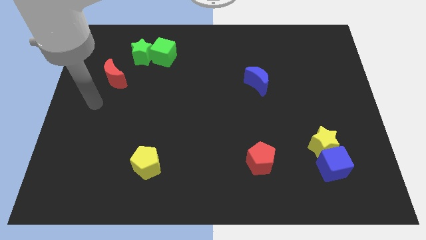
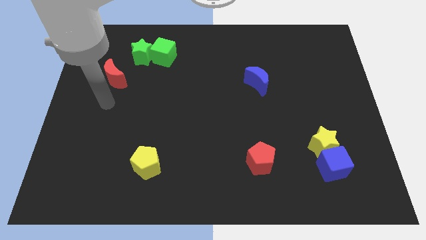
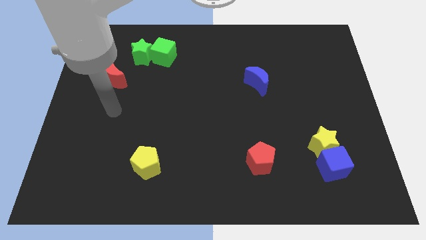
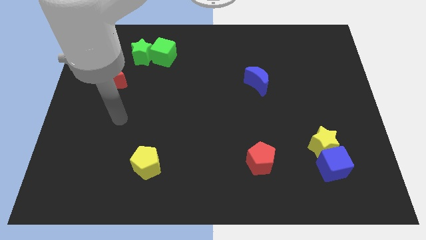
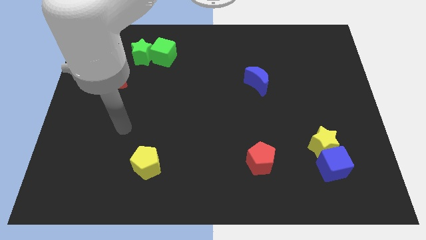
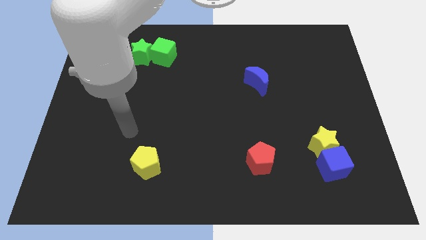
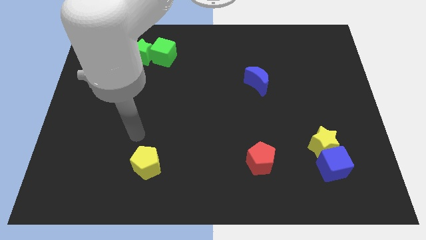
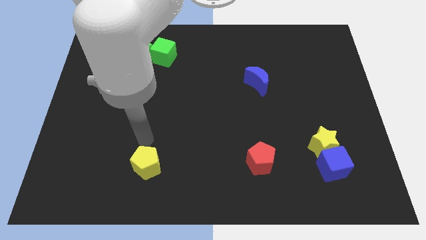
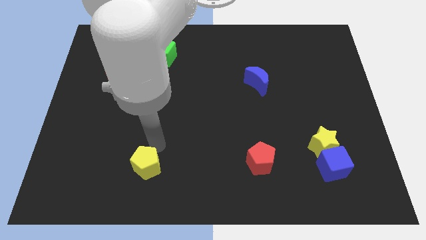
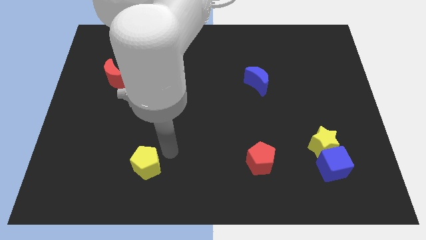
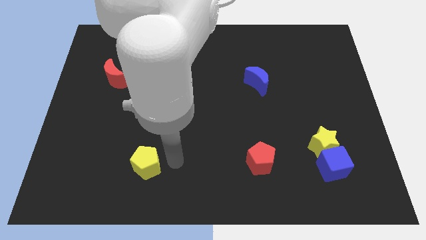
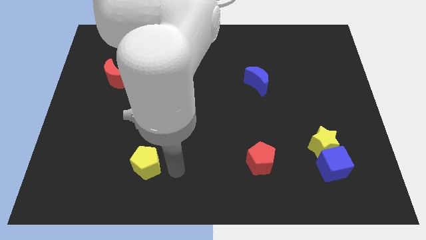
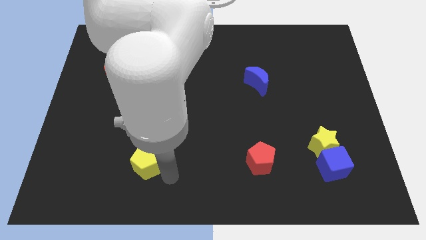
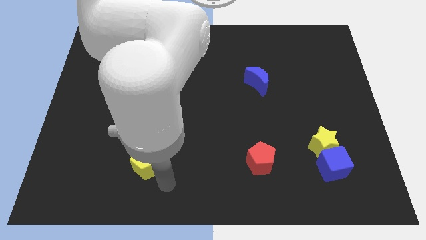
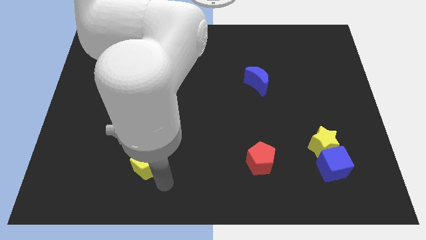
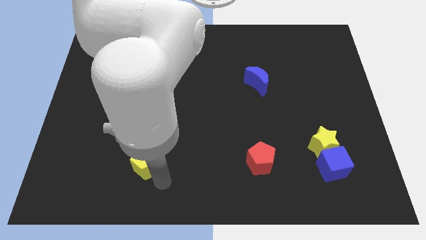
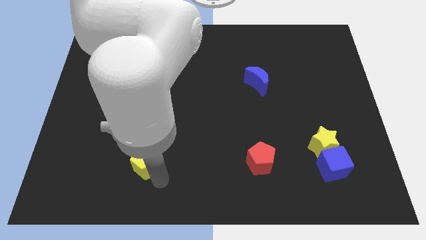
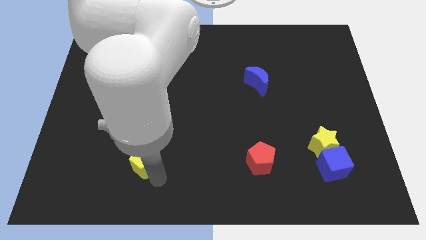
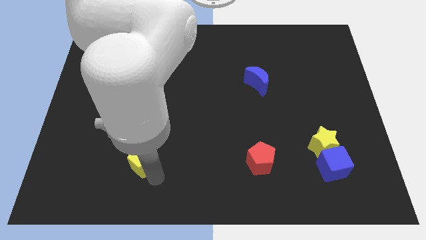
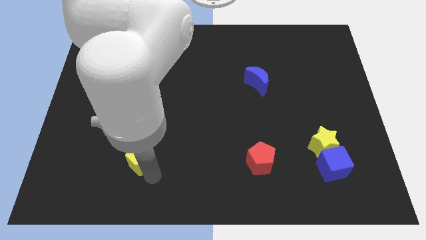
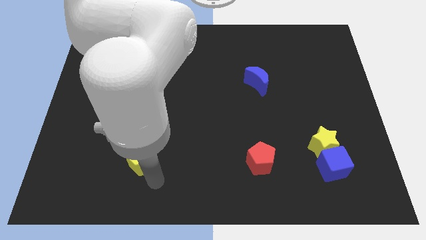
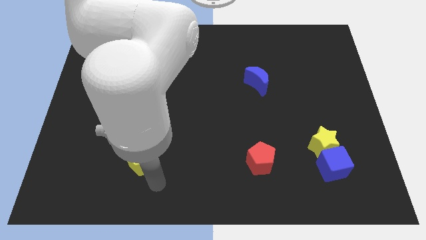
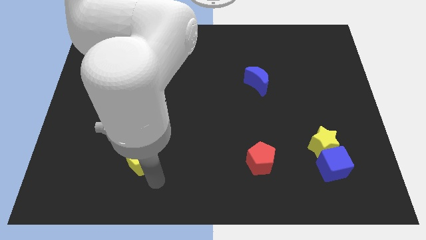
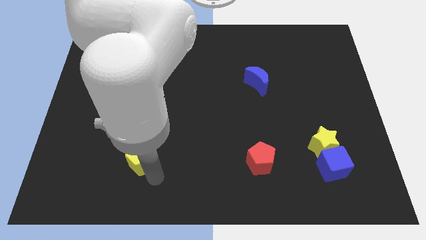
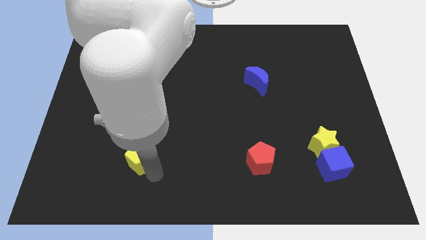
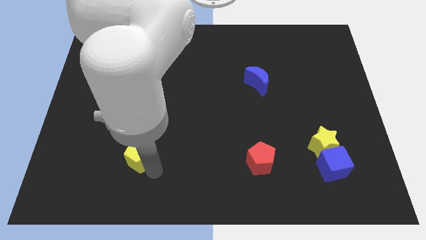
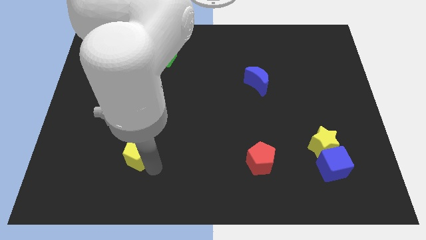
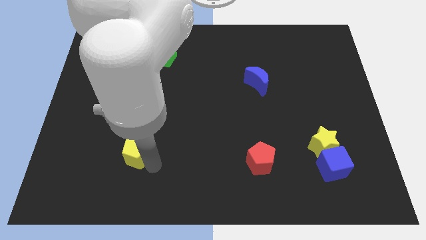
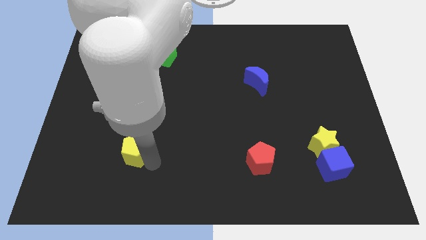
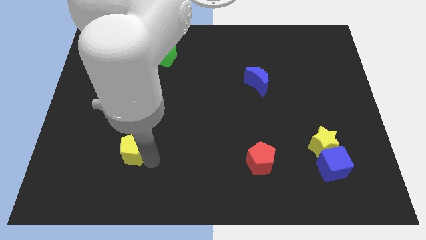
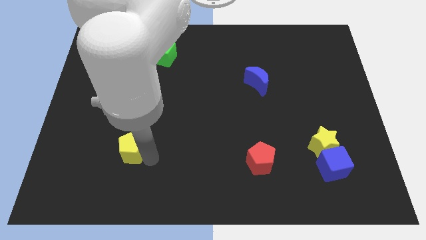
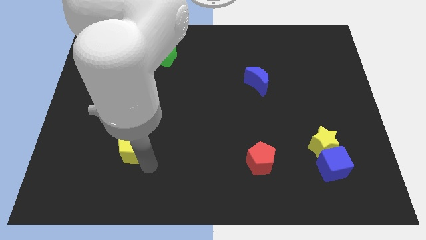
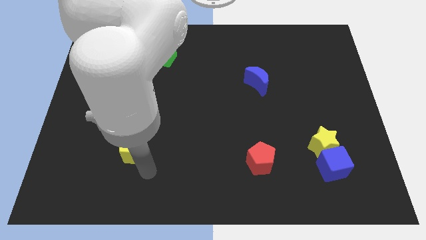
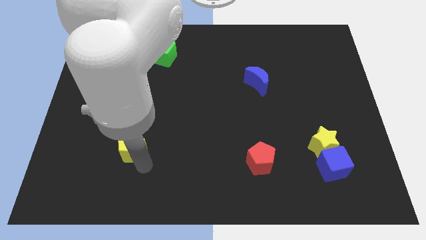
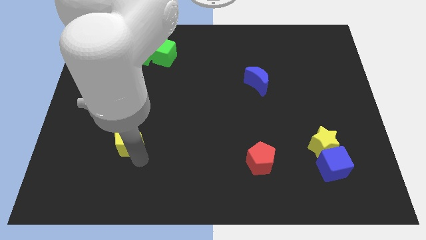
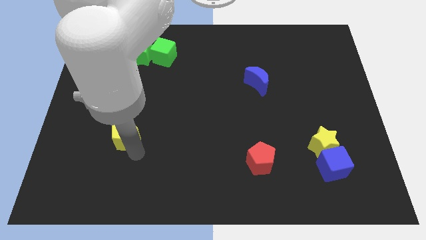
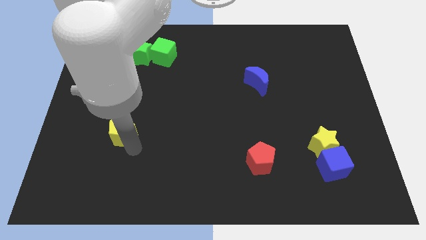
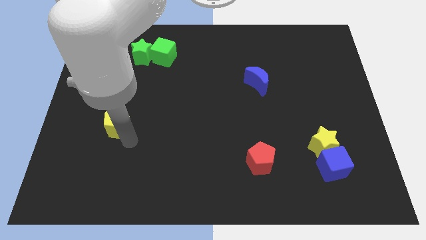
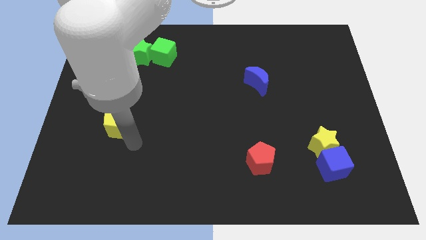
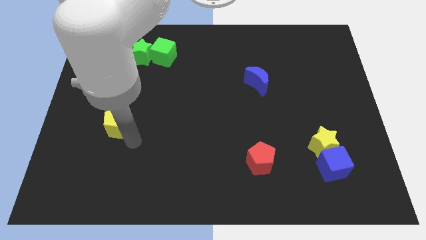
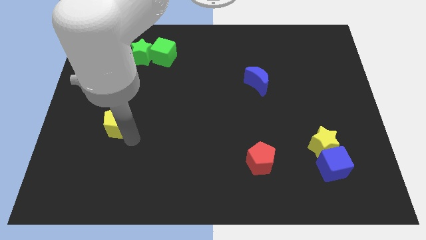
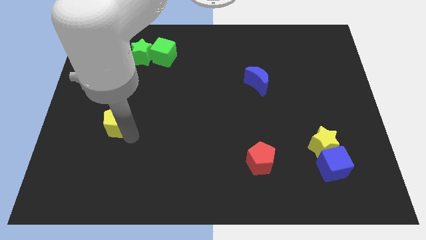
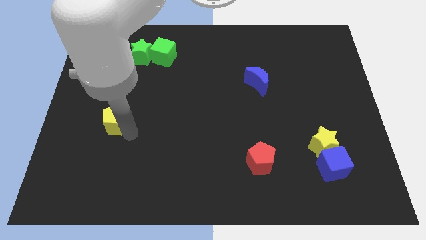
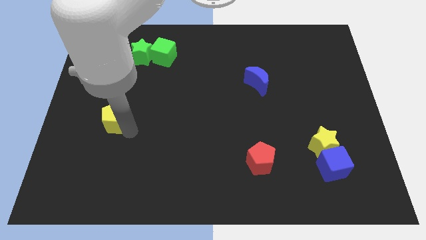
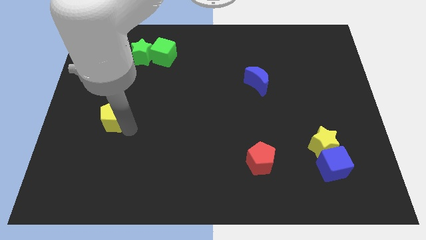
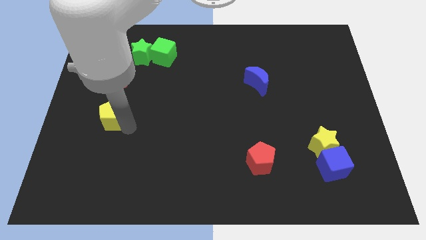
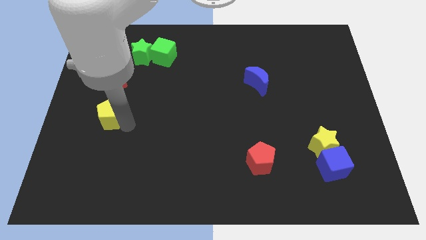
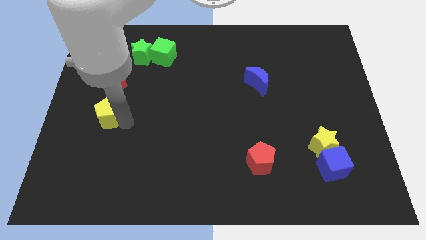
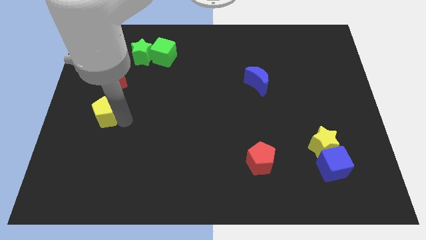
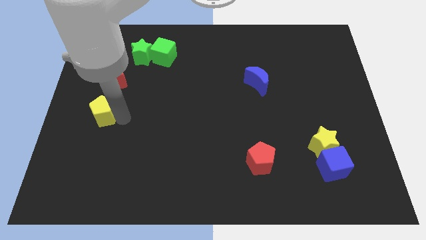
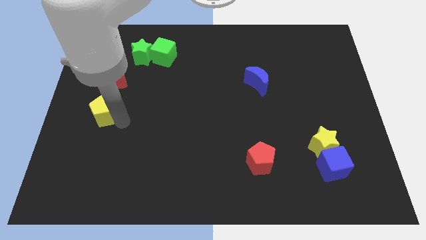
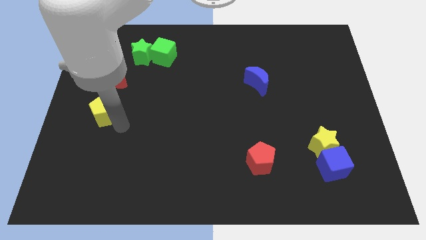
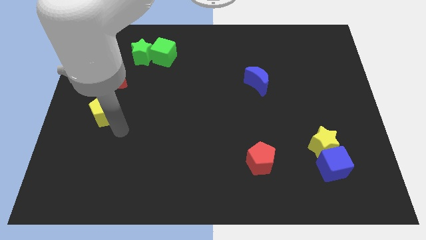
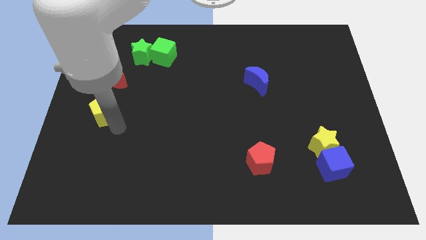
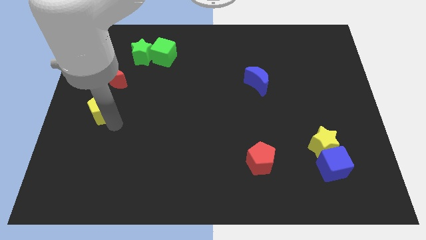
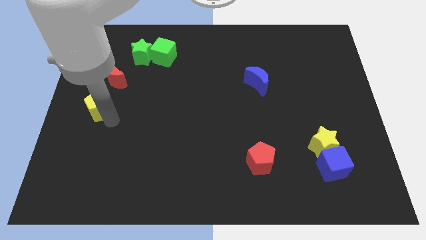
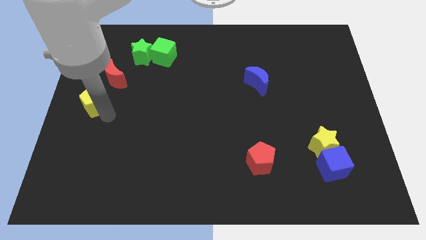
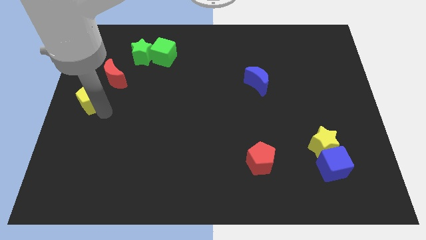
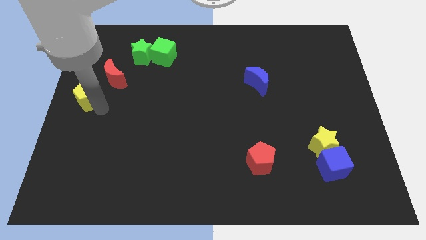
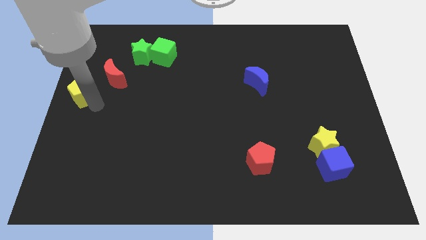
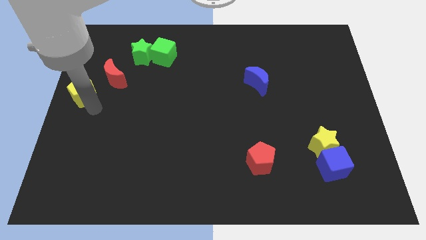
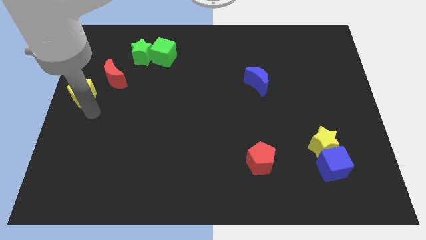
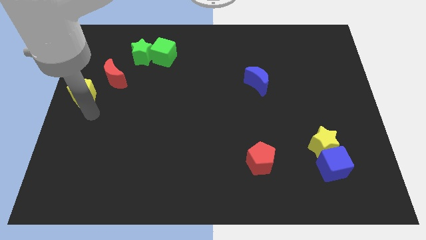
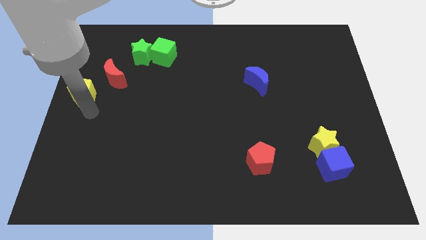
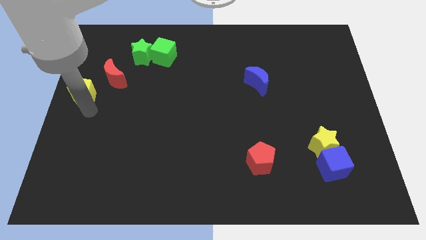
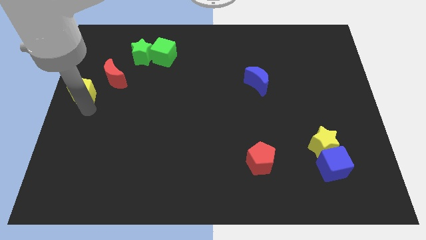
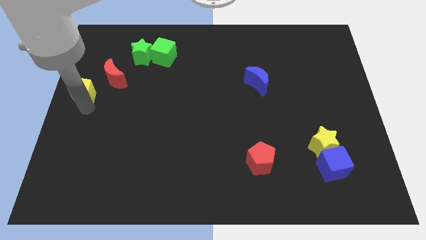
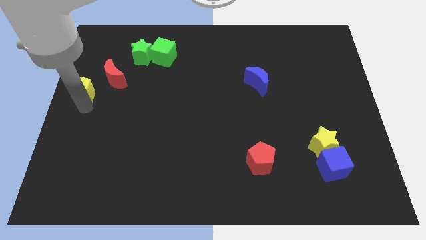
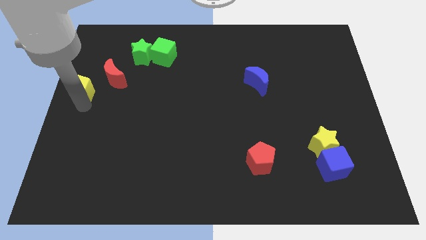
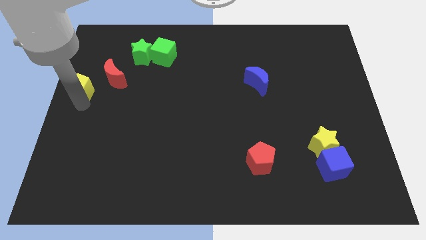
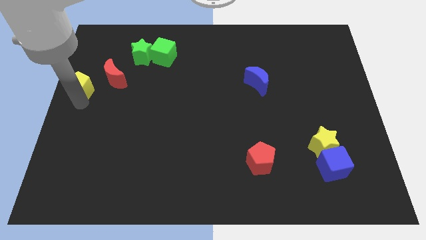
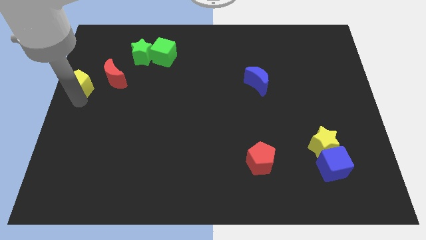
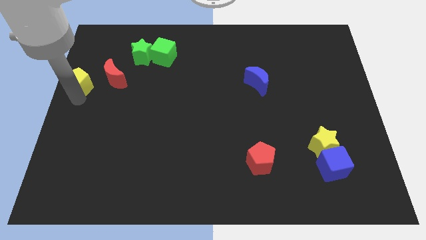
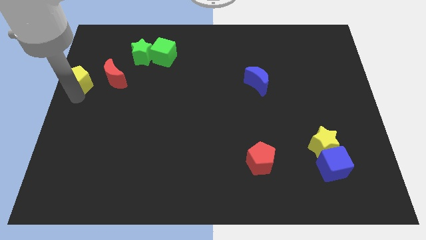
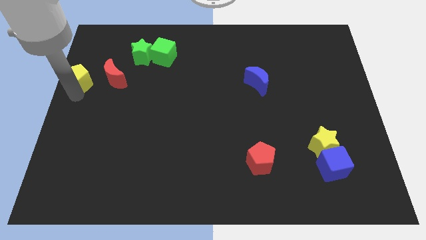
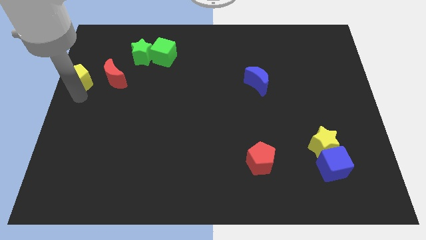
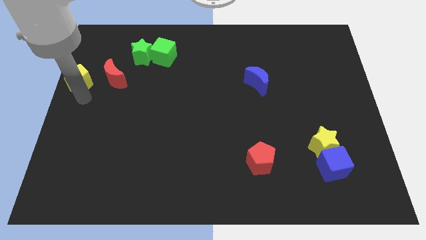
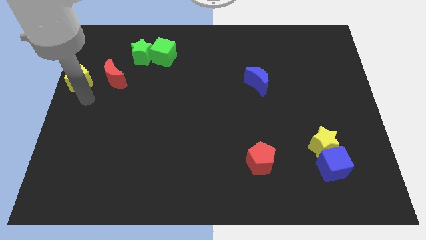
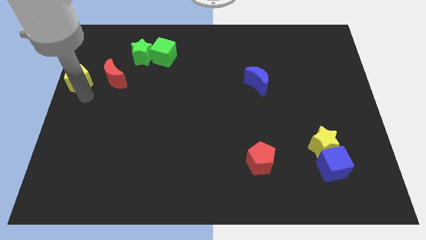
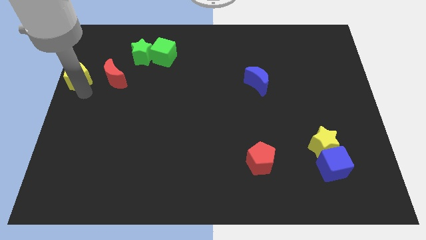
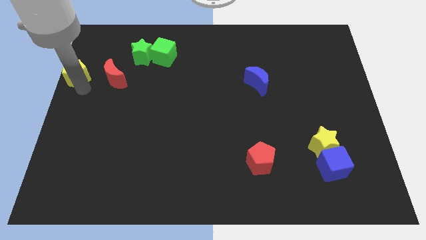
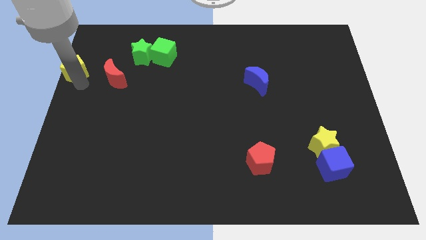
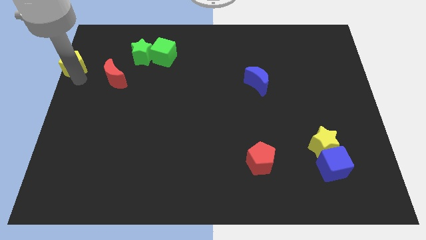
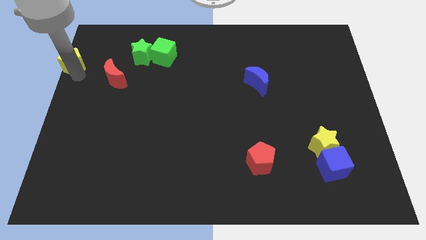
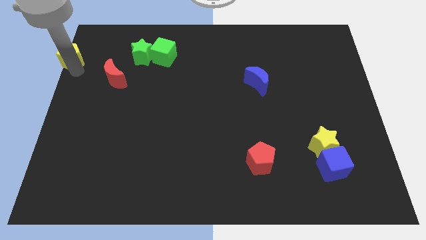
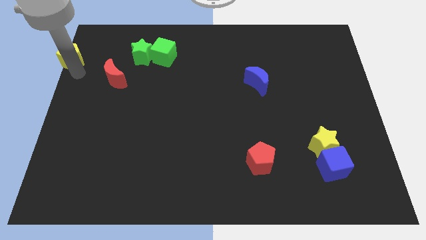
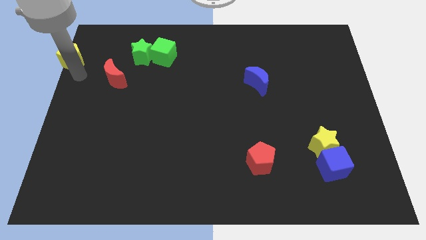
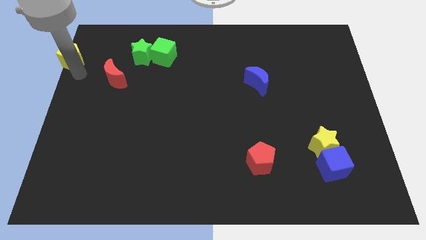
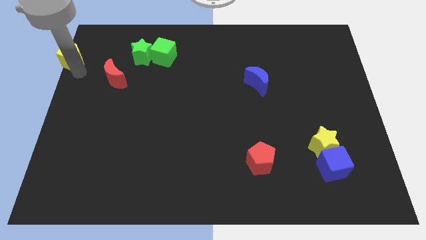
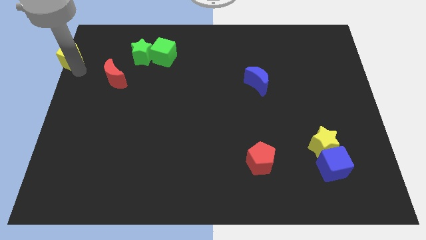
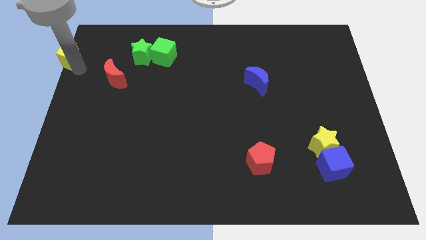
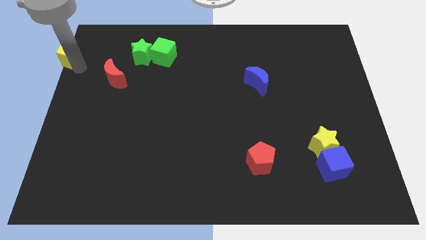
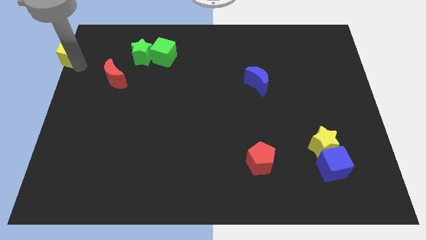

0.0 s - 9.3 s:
move the yellow pentagon to the top left of the board
